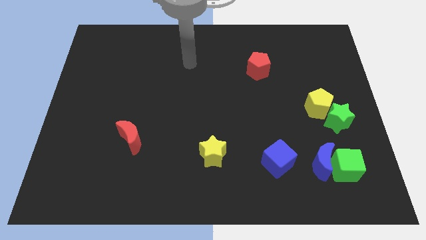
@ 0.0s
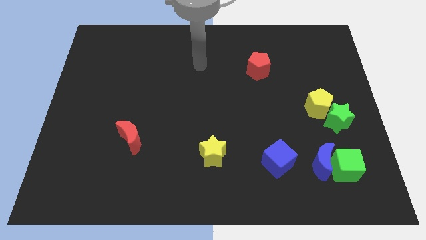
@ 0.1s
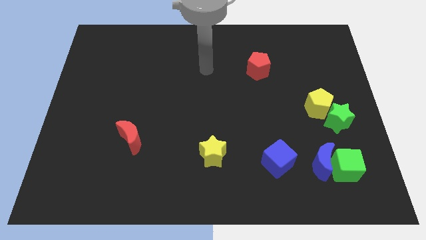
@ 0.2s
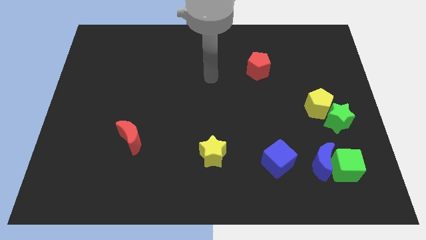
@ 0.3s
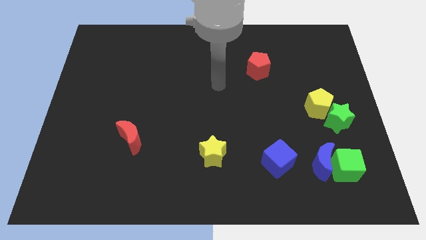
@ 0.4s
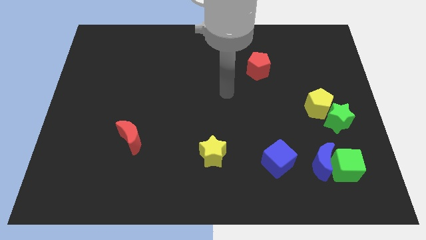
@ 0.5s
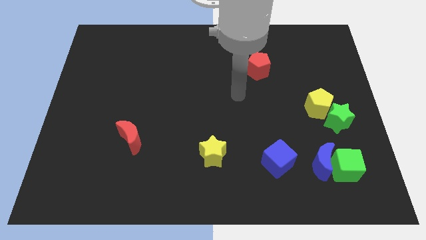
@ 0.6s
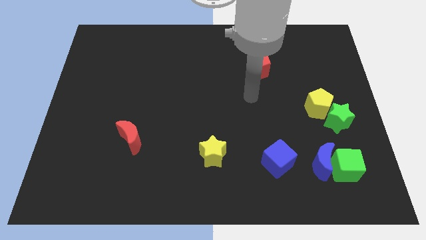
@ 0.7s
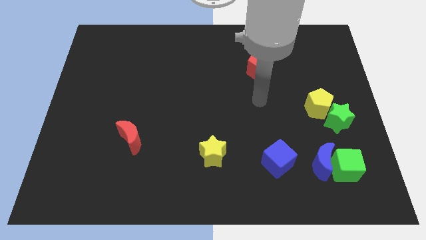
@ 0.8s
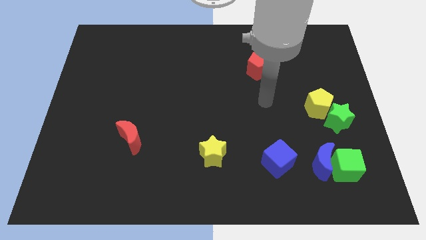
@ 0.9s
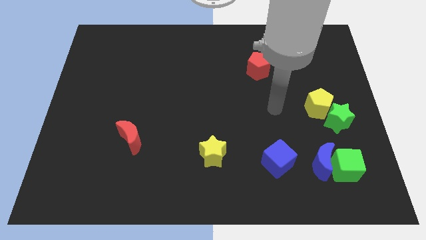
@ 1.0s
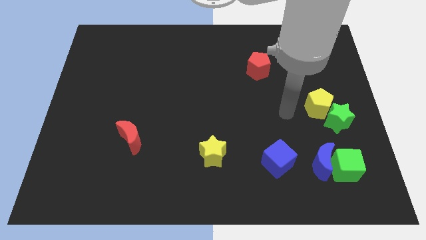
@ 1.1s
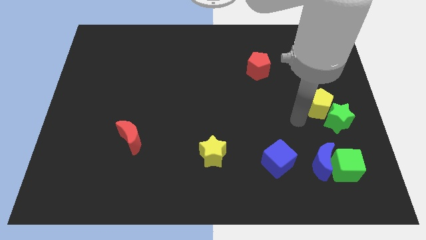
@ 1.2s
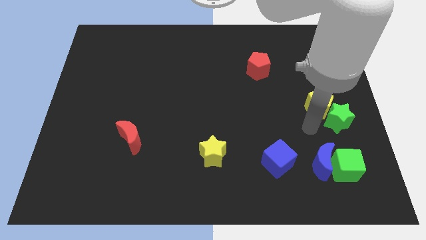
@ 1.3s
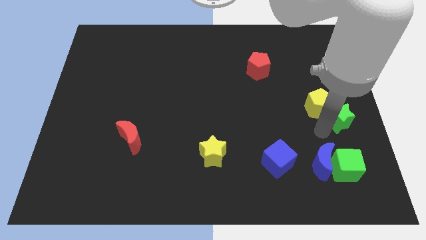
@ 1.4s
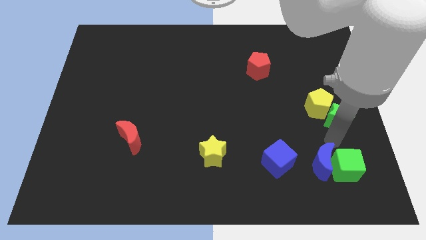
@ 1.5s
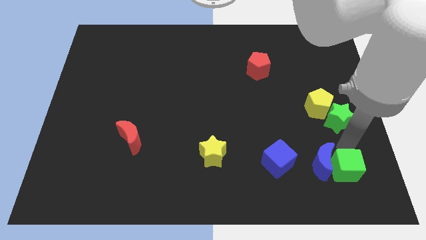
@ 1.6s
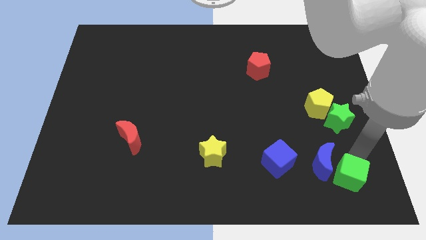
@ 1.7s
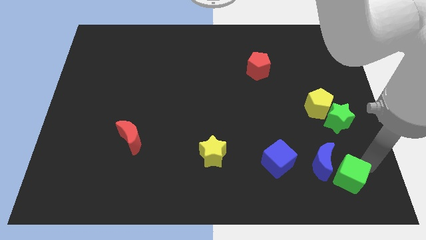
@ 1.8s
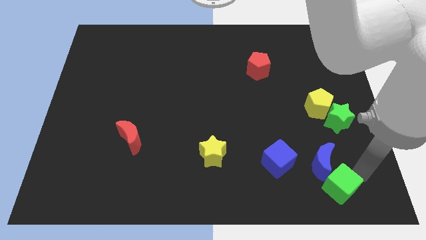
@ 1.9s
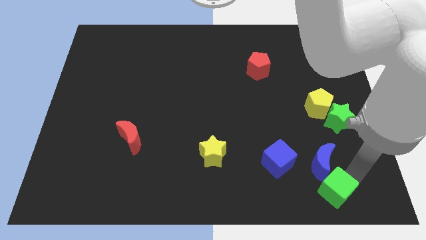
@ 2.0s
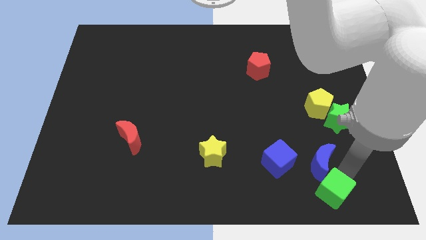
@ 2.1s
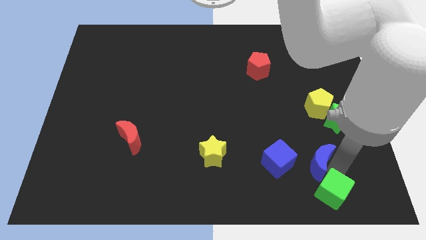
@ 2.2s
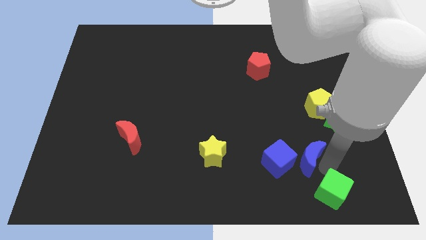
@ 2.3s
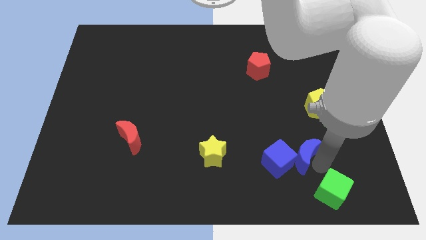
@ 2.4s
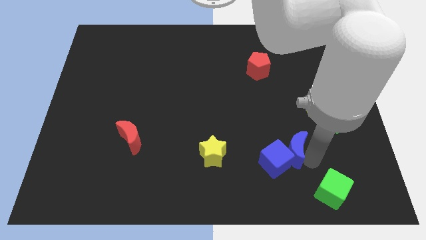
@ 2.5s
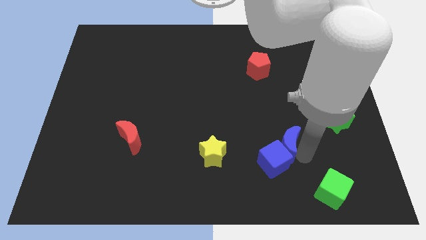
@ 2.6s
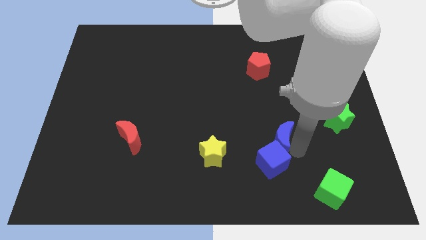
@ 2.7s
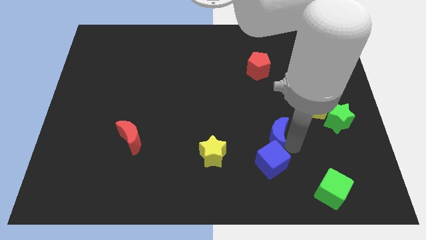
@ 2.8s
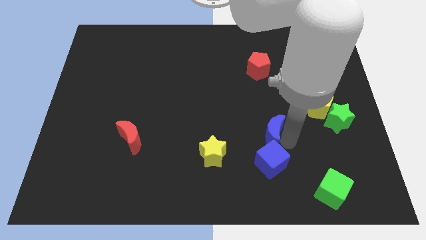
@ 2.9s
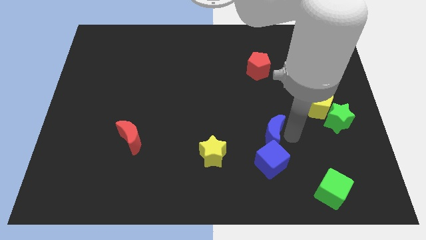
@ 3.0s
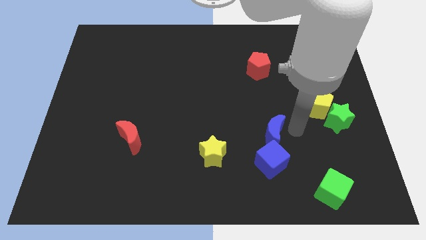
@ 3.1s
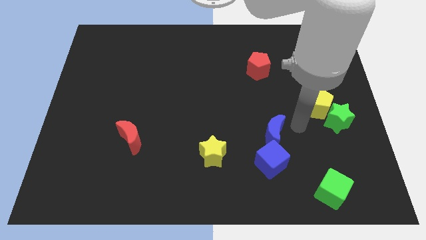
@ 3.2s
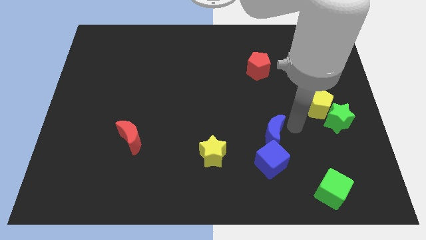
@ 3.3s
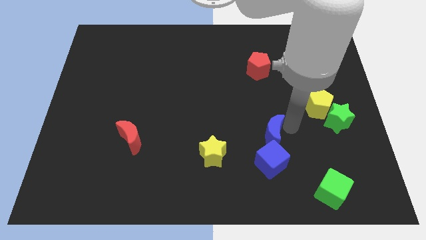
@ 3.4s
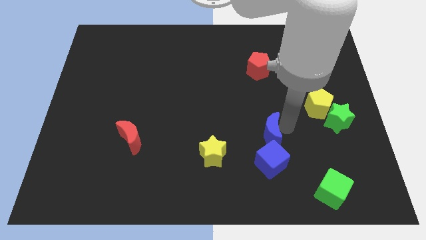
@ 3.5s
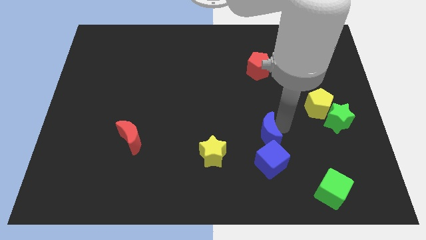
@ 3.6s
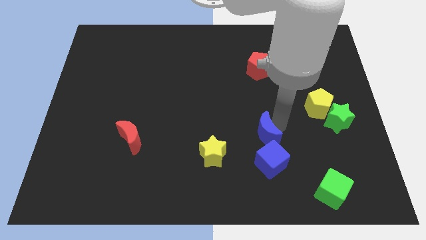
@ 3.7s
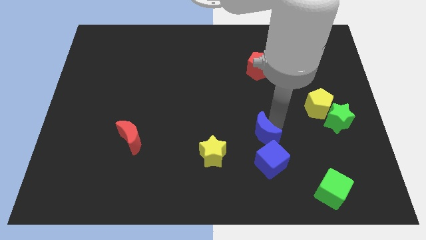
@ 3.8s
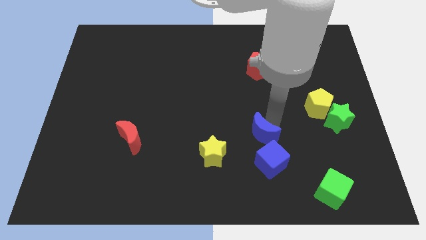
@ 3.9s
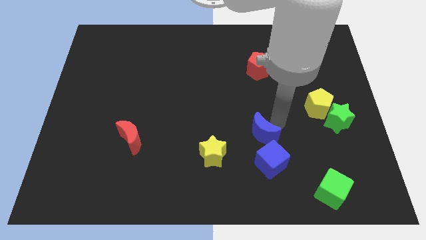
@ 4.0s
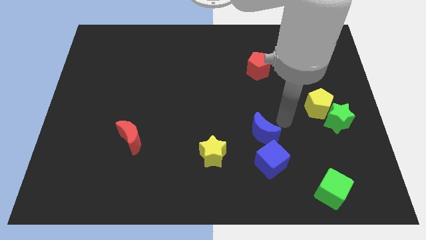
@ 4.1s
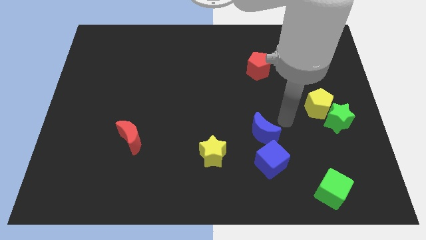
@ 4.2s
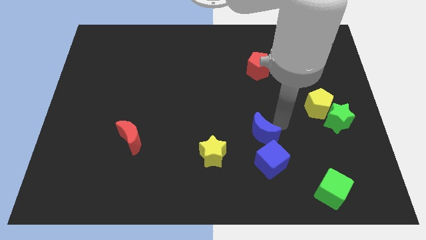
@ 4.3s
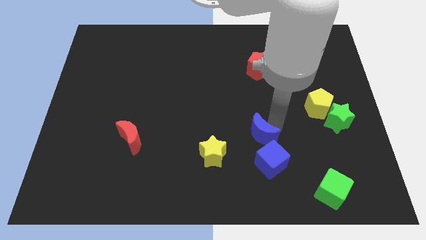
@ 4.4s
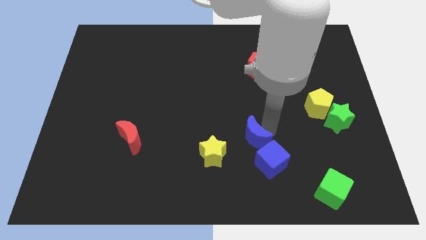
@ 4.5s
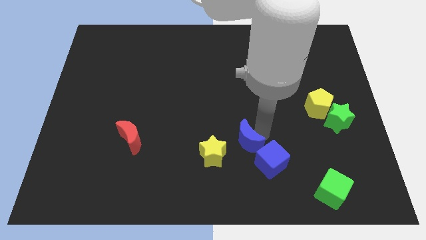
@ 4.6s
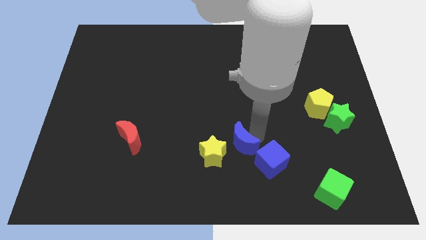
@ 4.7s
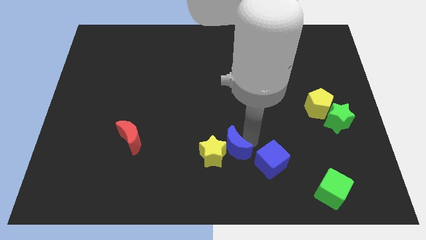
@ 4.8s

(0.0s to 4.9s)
slide the blue moon close to the yellow star

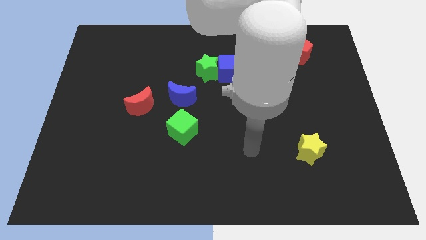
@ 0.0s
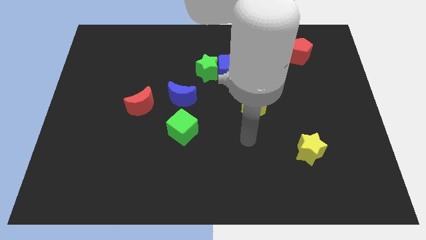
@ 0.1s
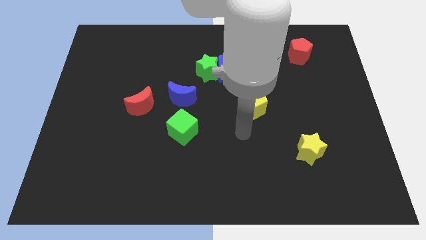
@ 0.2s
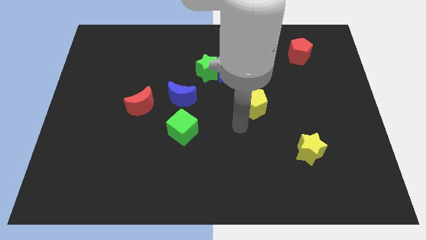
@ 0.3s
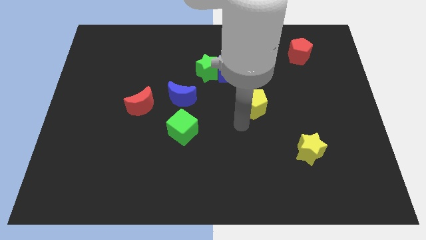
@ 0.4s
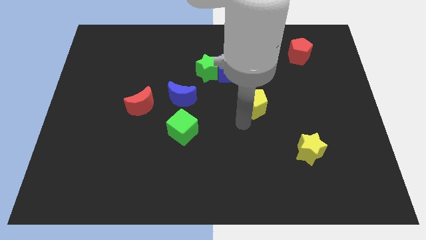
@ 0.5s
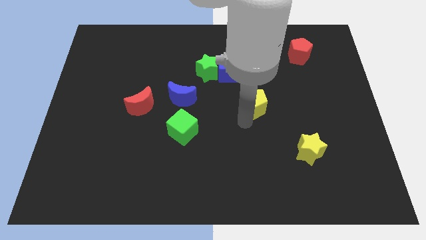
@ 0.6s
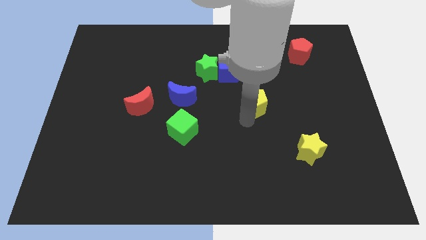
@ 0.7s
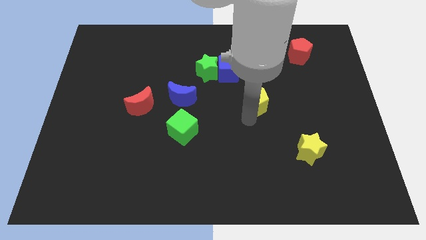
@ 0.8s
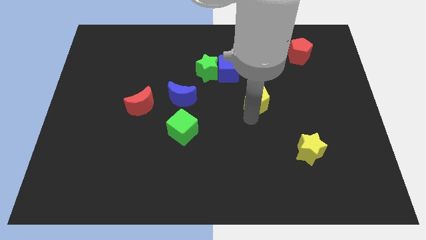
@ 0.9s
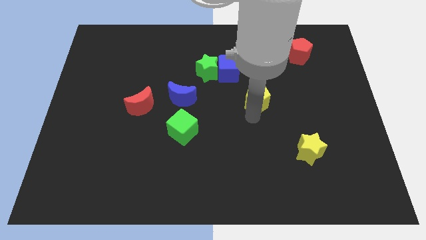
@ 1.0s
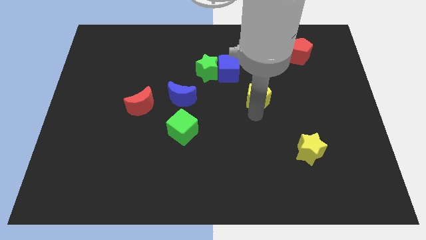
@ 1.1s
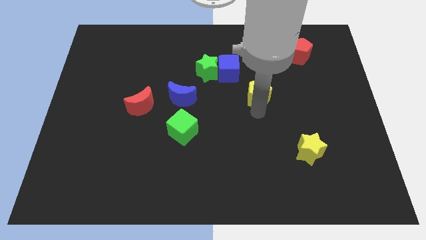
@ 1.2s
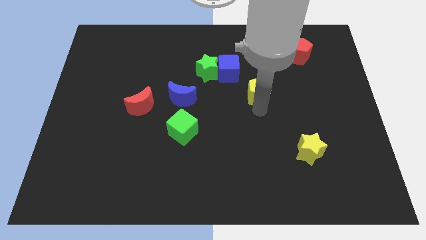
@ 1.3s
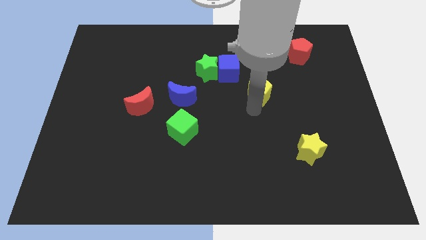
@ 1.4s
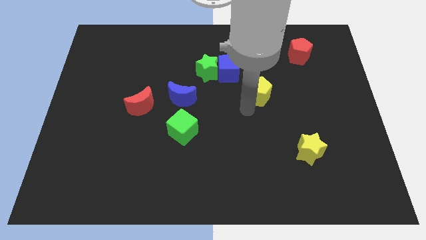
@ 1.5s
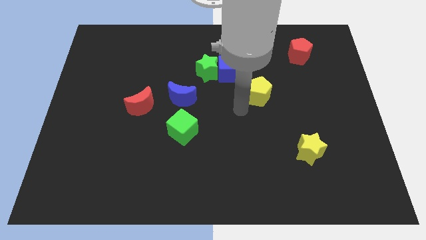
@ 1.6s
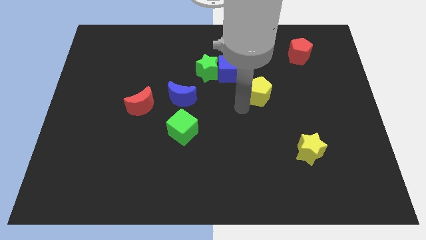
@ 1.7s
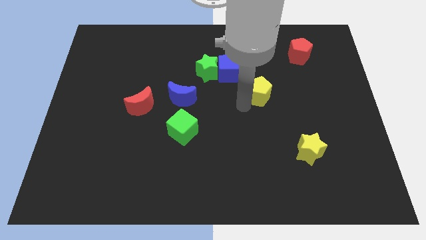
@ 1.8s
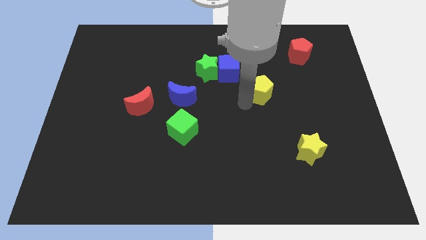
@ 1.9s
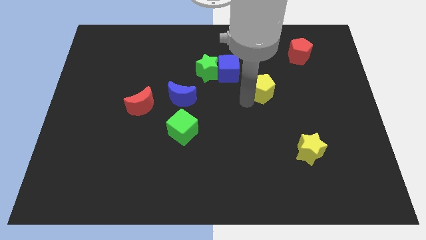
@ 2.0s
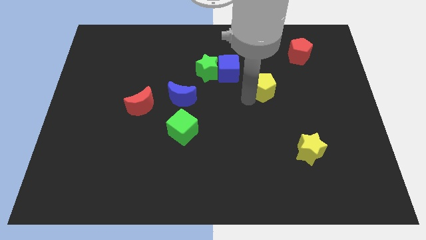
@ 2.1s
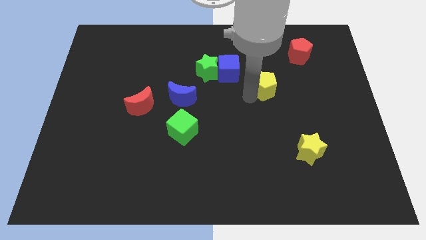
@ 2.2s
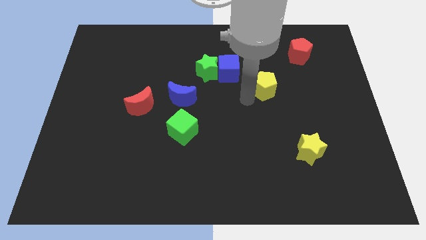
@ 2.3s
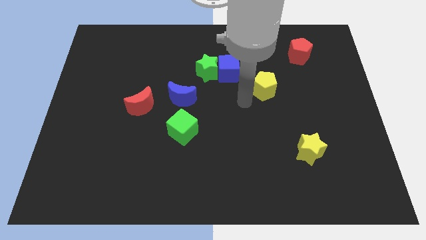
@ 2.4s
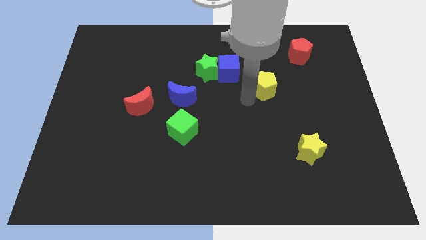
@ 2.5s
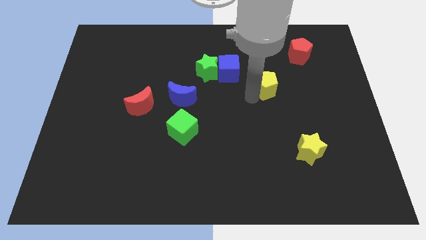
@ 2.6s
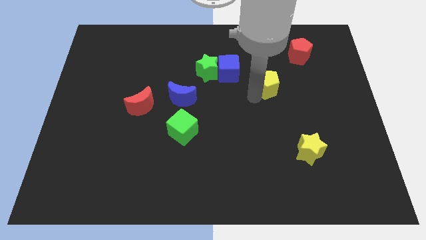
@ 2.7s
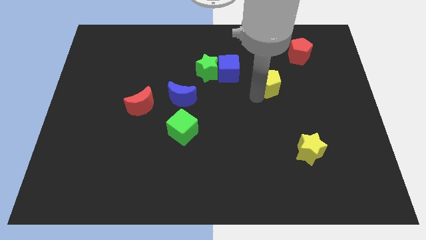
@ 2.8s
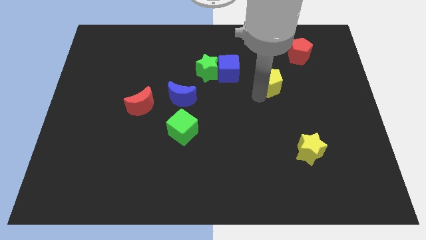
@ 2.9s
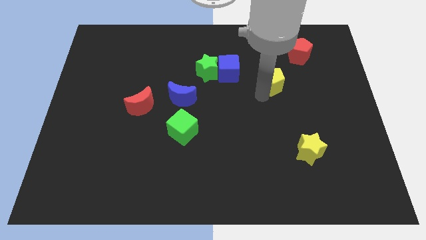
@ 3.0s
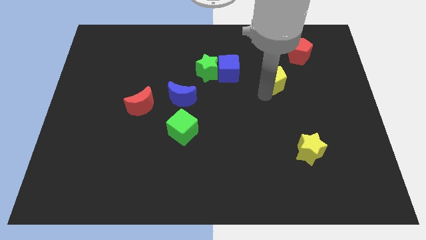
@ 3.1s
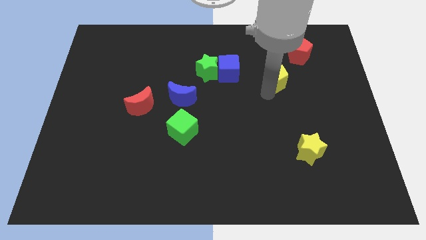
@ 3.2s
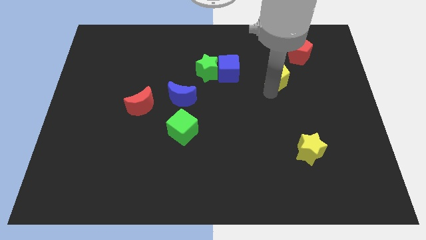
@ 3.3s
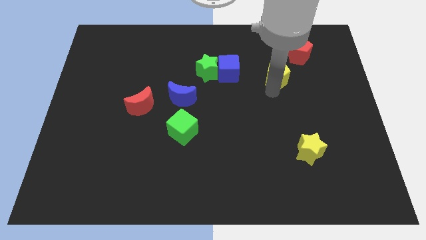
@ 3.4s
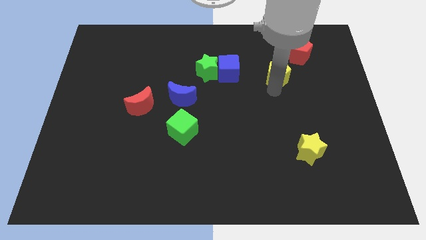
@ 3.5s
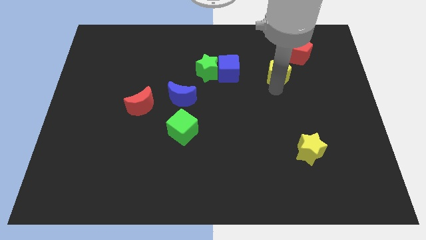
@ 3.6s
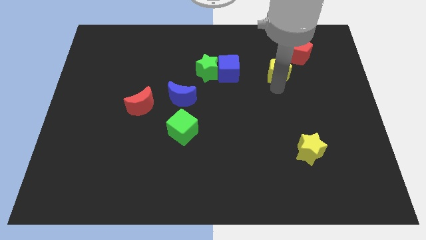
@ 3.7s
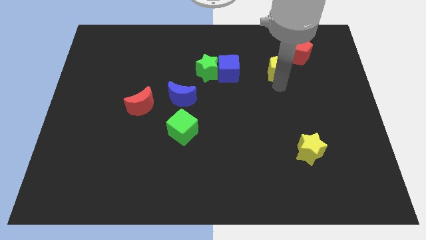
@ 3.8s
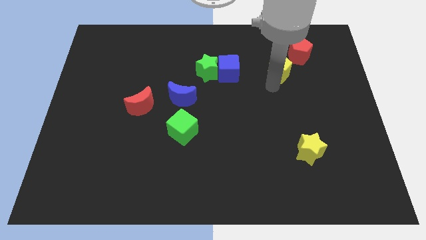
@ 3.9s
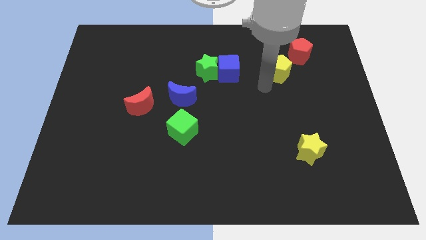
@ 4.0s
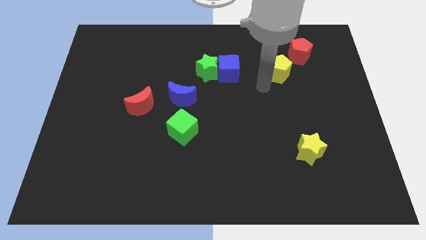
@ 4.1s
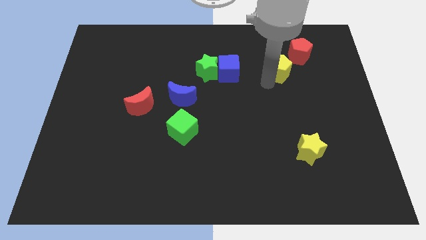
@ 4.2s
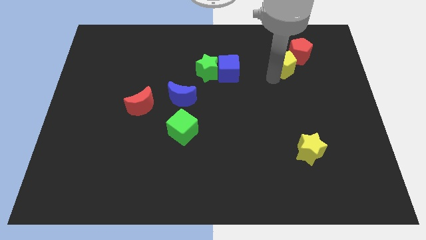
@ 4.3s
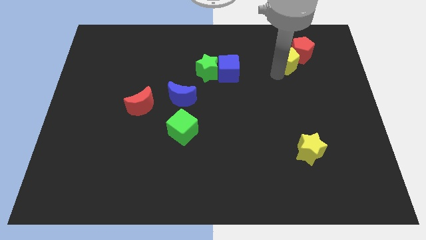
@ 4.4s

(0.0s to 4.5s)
put the yellow pentagon close to the red pentagon
